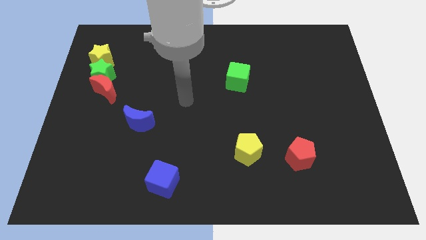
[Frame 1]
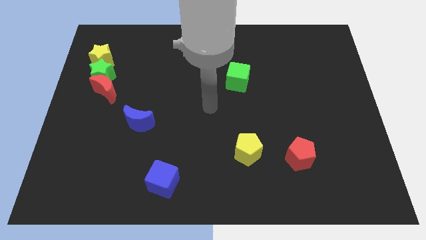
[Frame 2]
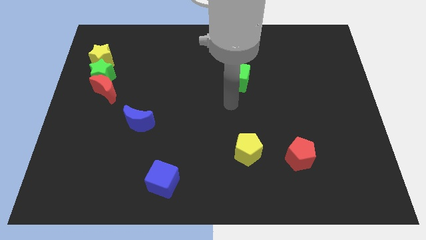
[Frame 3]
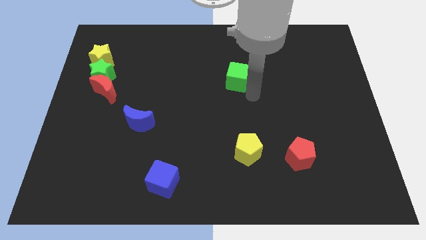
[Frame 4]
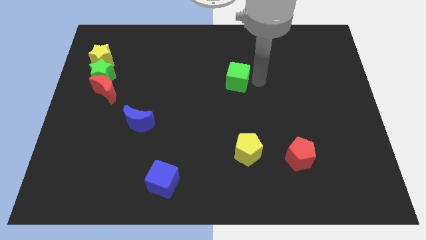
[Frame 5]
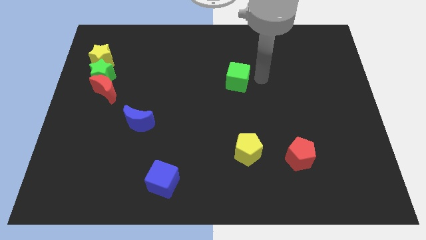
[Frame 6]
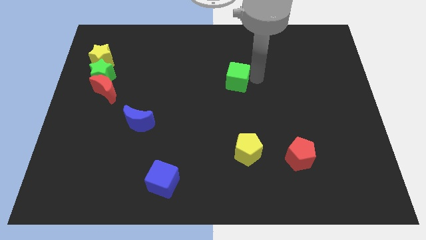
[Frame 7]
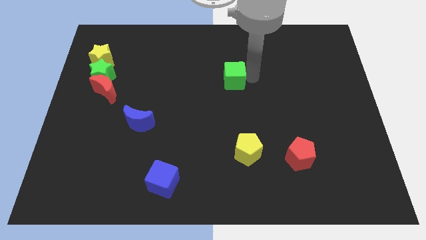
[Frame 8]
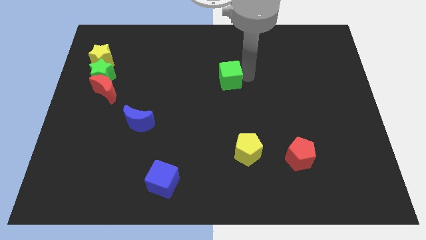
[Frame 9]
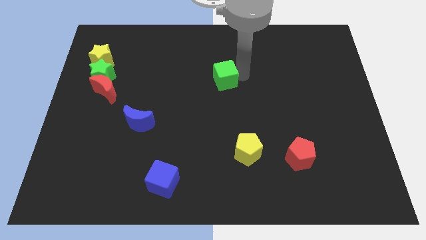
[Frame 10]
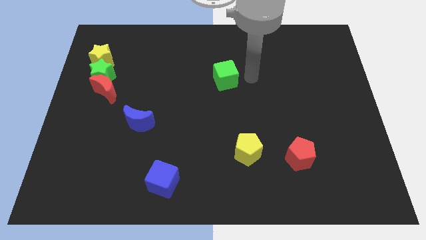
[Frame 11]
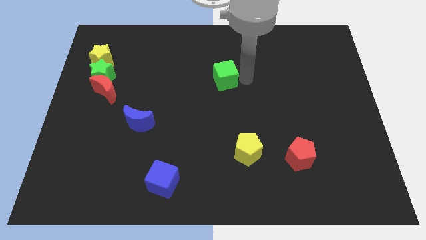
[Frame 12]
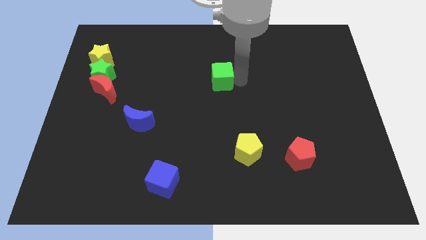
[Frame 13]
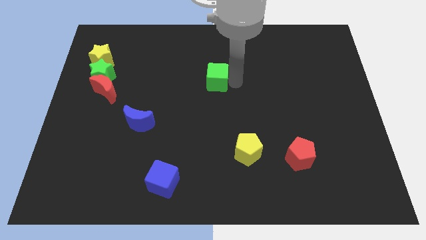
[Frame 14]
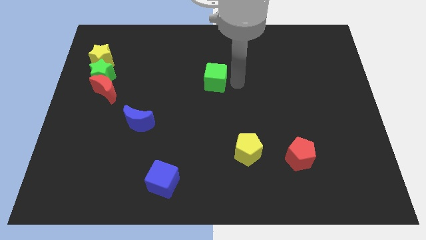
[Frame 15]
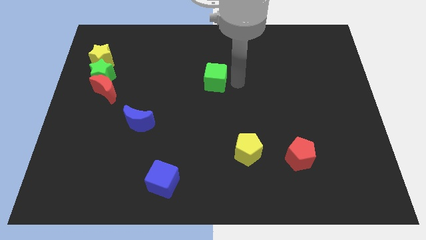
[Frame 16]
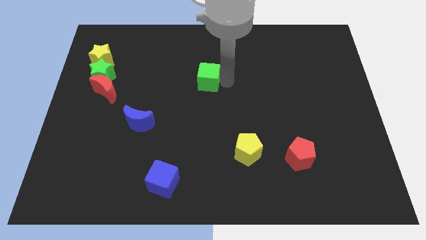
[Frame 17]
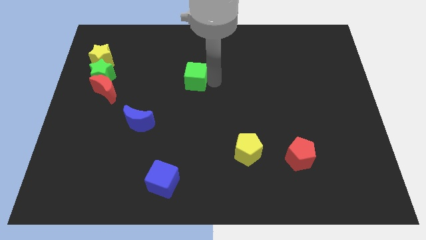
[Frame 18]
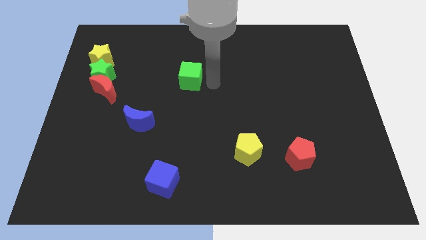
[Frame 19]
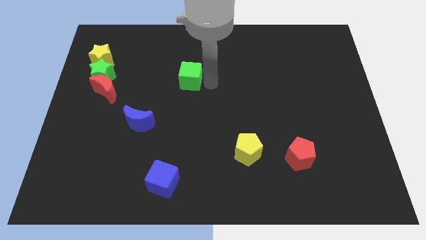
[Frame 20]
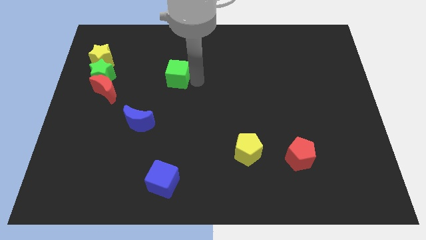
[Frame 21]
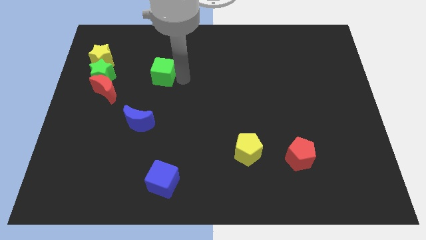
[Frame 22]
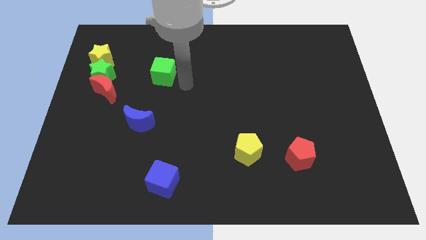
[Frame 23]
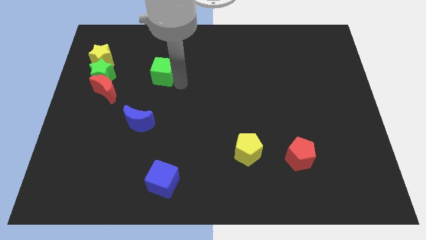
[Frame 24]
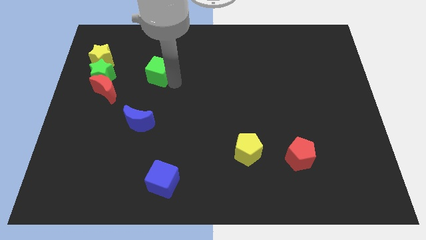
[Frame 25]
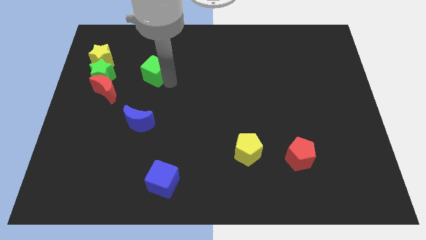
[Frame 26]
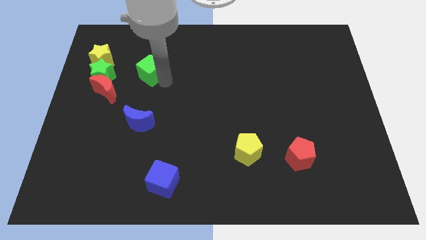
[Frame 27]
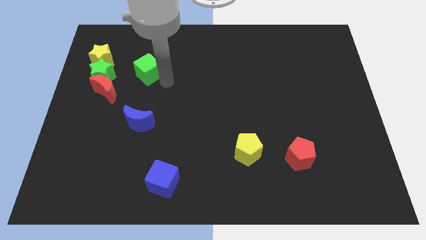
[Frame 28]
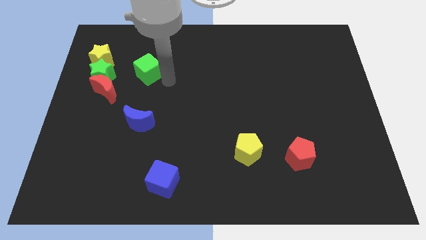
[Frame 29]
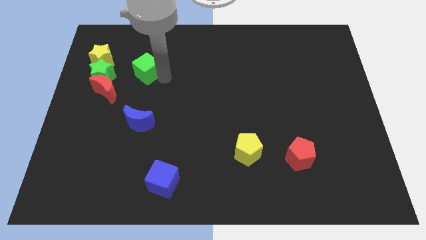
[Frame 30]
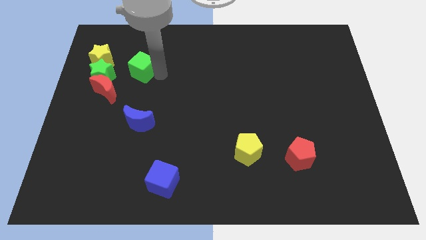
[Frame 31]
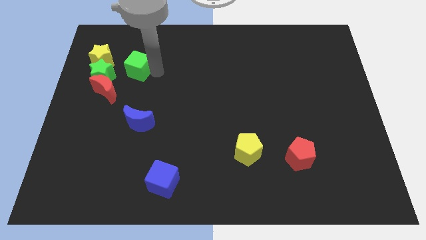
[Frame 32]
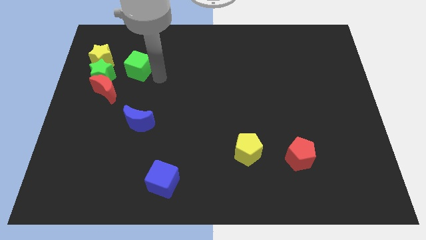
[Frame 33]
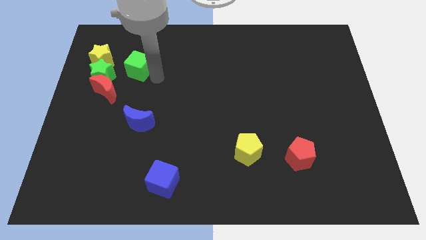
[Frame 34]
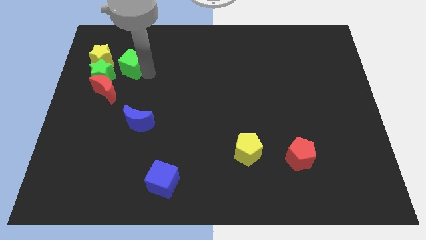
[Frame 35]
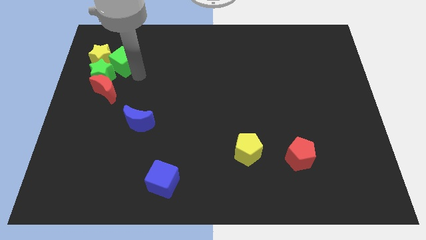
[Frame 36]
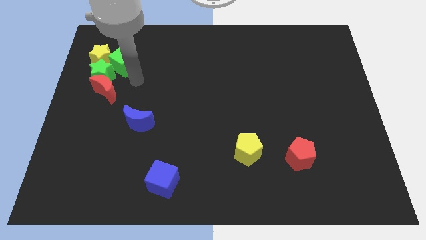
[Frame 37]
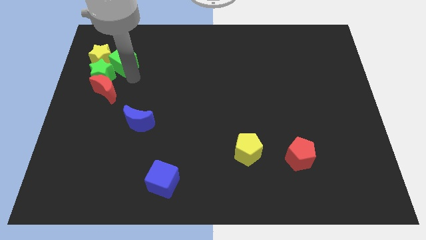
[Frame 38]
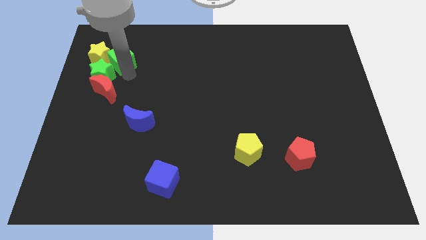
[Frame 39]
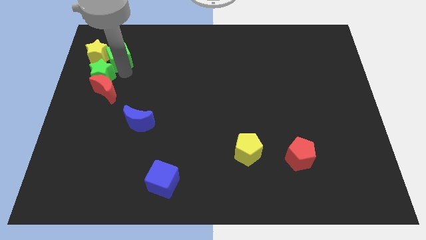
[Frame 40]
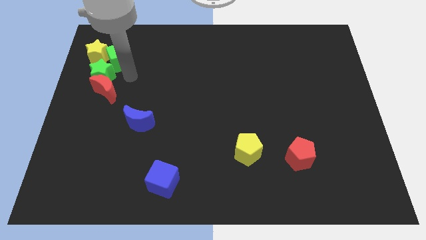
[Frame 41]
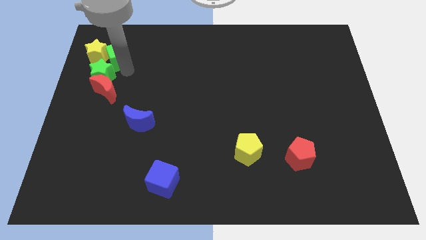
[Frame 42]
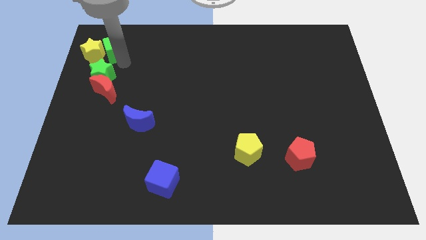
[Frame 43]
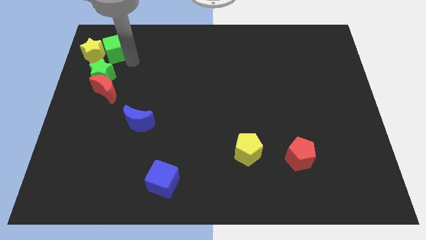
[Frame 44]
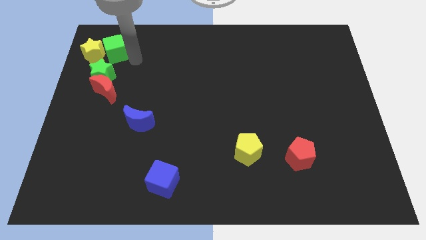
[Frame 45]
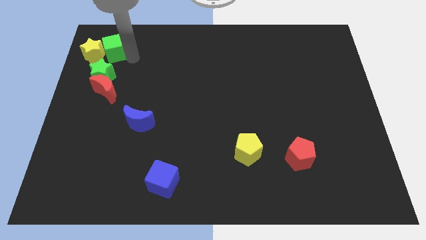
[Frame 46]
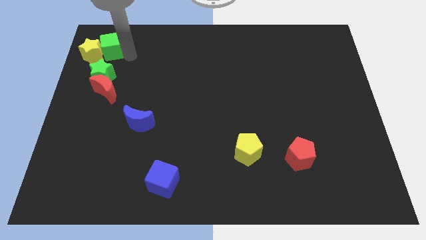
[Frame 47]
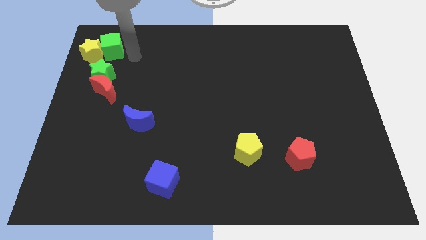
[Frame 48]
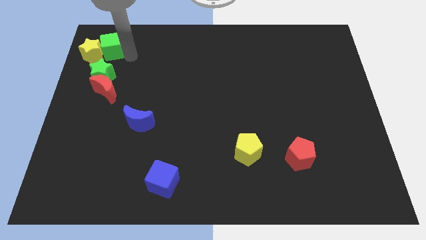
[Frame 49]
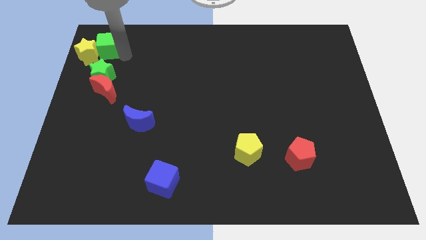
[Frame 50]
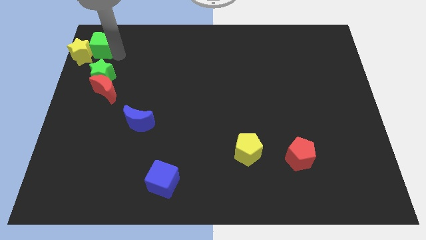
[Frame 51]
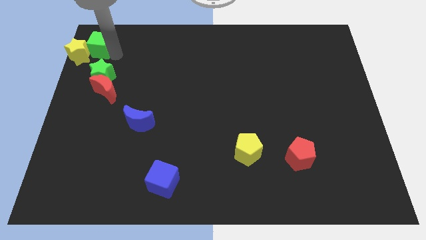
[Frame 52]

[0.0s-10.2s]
slide the green cube to the top left

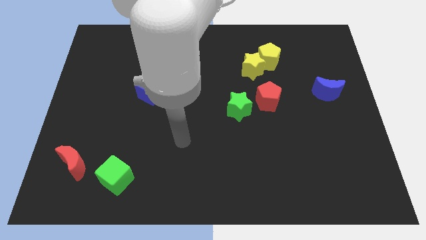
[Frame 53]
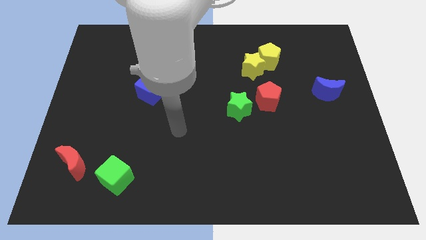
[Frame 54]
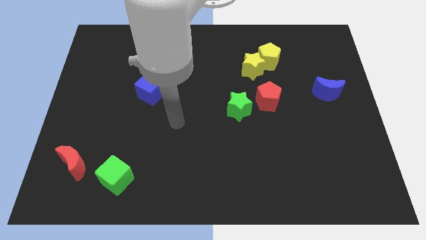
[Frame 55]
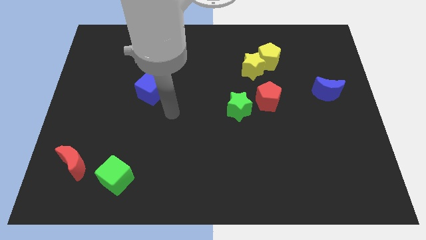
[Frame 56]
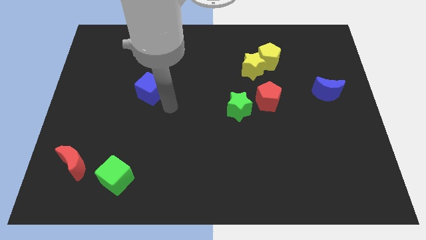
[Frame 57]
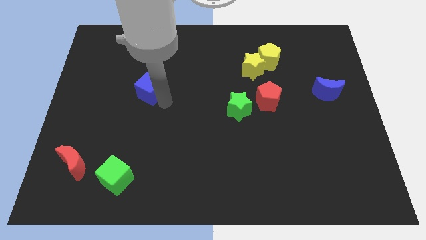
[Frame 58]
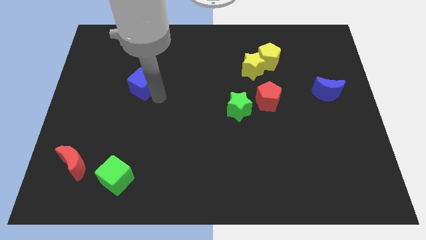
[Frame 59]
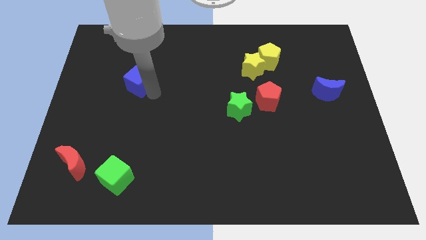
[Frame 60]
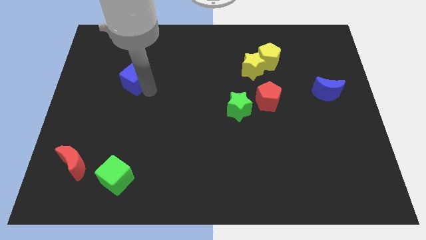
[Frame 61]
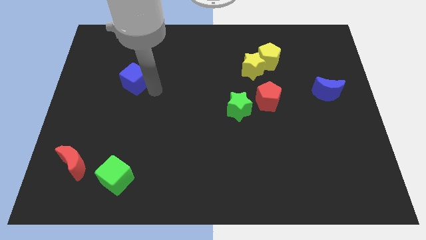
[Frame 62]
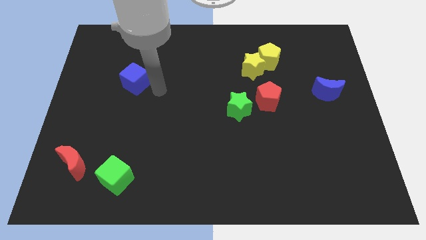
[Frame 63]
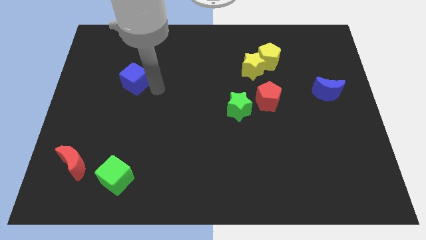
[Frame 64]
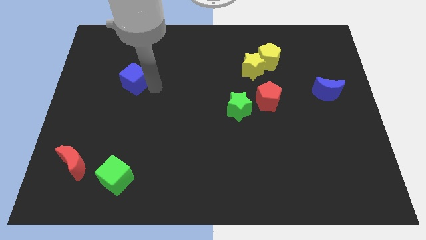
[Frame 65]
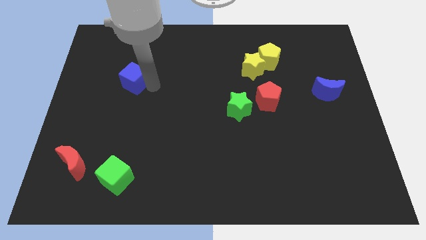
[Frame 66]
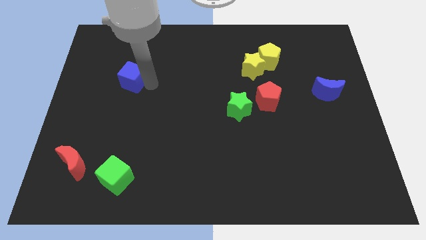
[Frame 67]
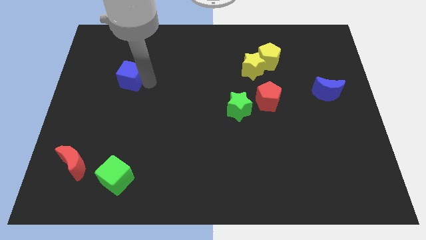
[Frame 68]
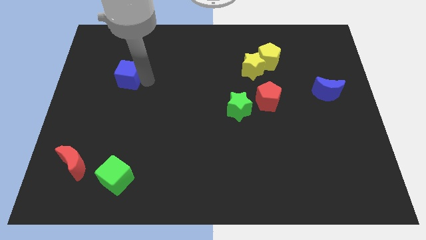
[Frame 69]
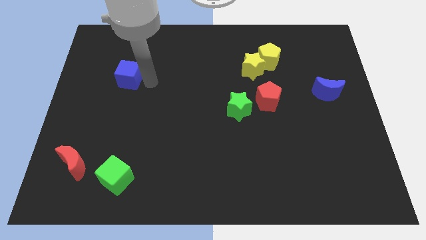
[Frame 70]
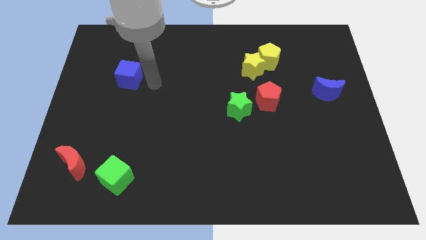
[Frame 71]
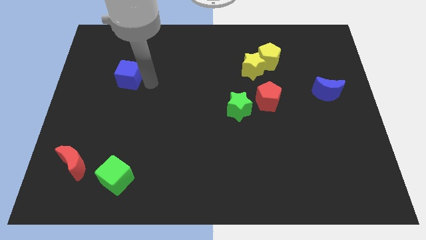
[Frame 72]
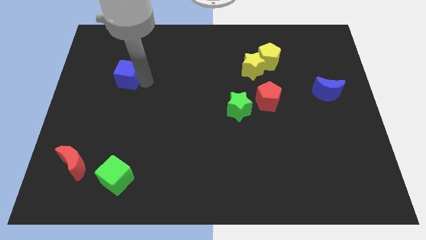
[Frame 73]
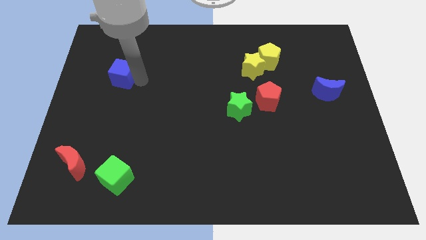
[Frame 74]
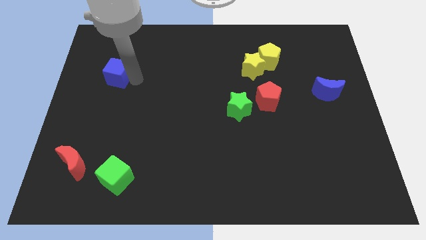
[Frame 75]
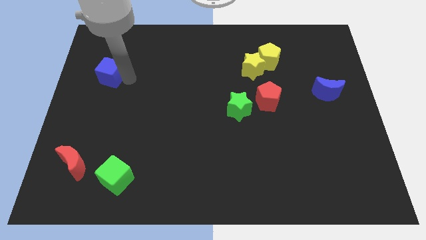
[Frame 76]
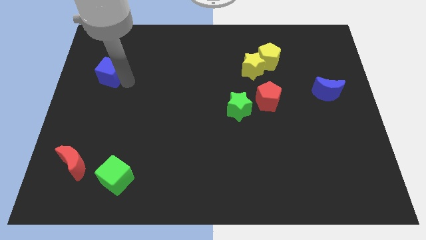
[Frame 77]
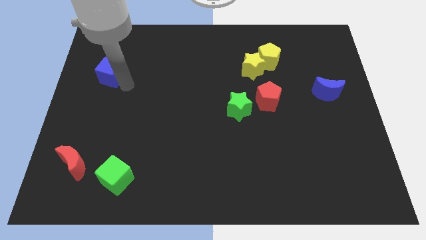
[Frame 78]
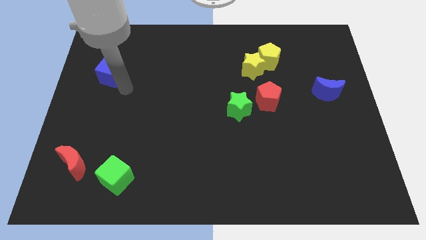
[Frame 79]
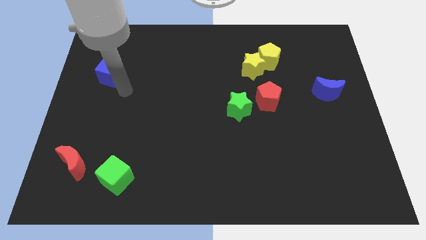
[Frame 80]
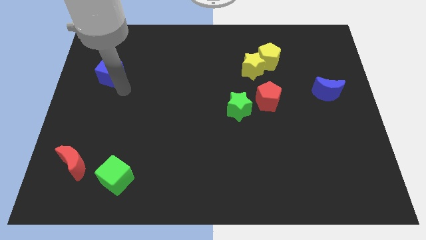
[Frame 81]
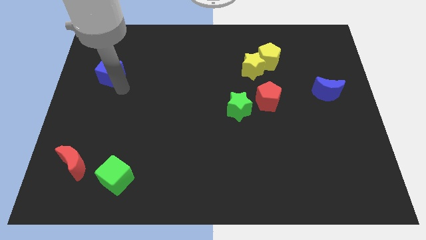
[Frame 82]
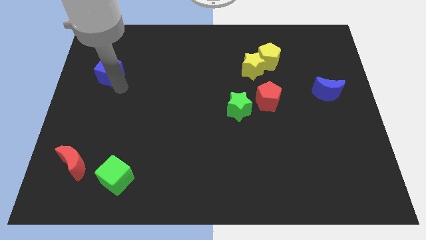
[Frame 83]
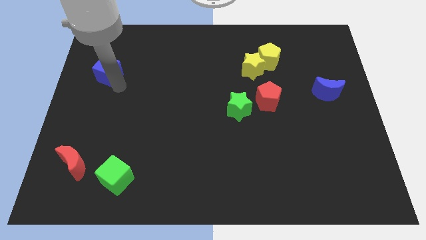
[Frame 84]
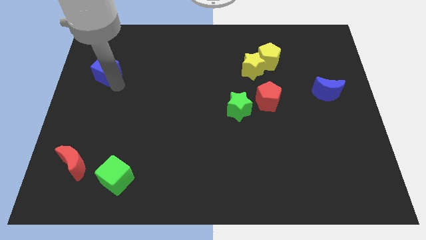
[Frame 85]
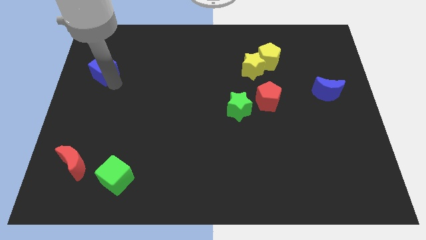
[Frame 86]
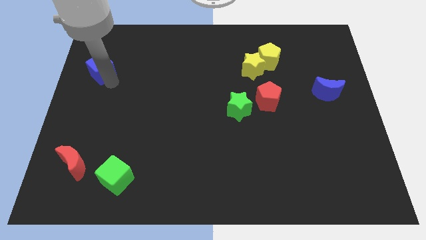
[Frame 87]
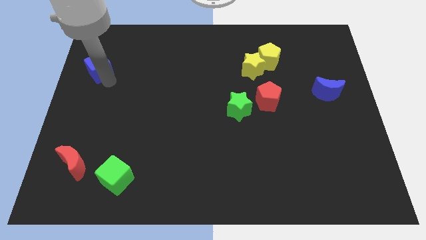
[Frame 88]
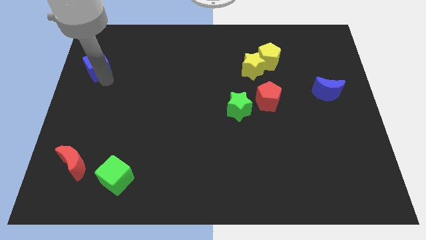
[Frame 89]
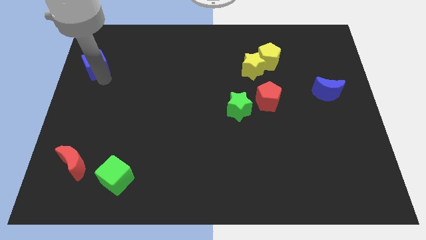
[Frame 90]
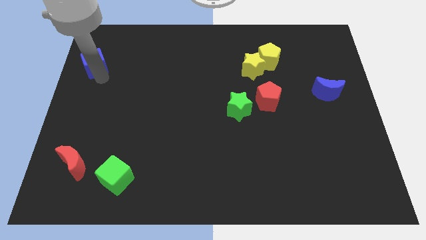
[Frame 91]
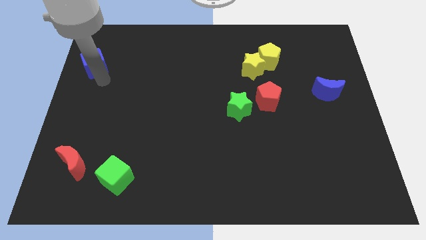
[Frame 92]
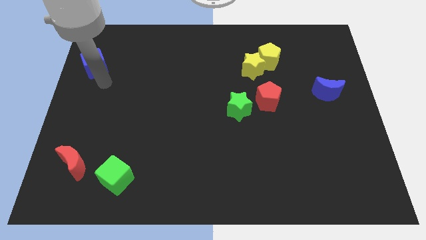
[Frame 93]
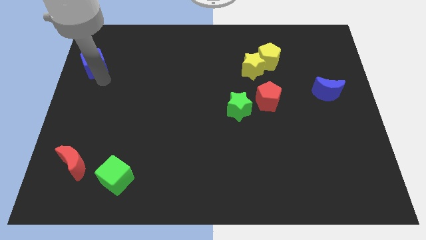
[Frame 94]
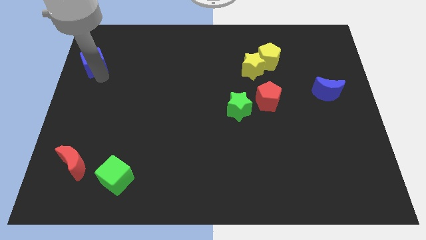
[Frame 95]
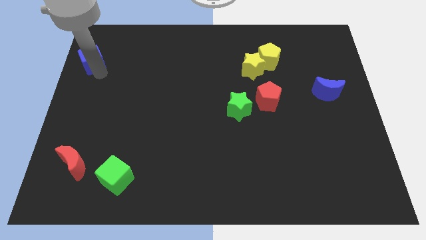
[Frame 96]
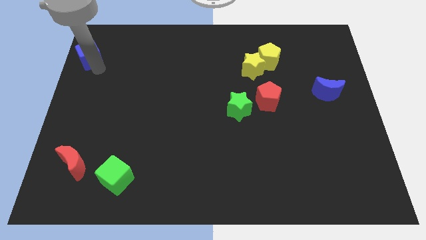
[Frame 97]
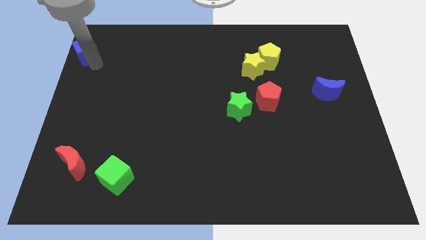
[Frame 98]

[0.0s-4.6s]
put the blue cube to the top left
